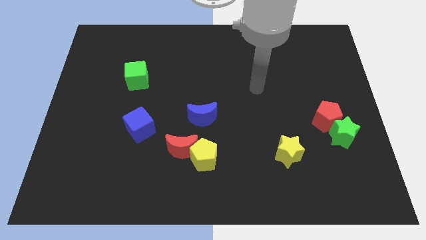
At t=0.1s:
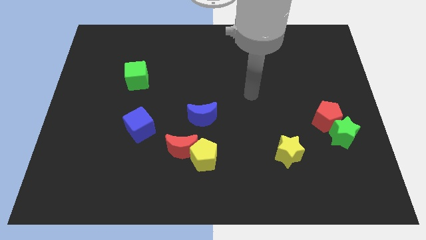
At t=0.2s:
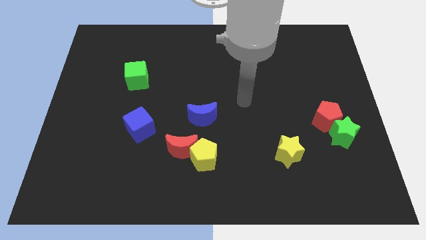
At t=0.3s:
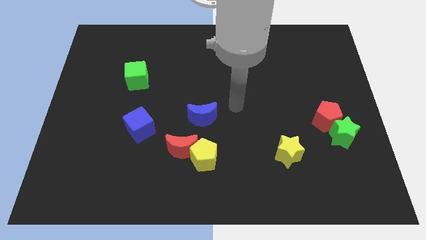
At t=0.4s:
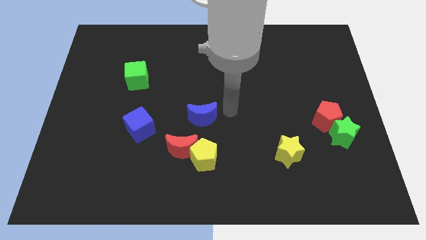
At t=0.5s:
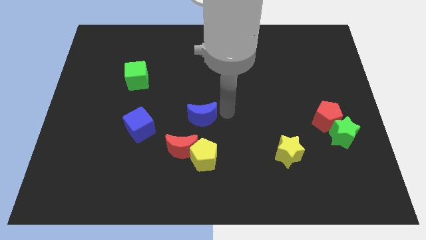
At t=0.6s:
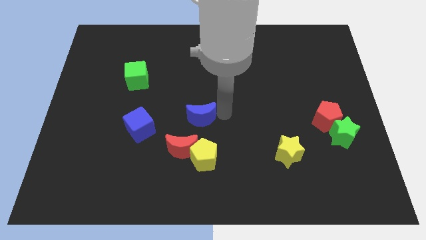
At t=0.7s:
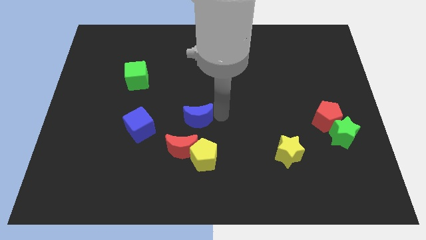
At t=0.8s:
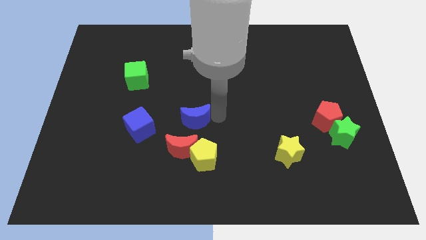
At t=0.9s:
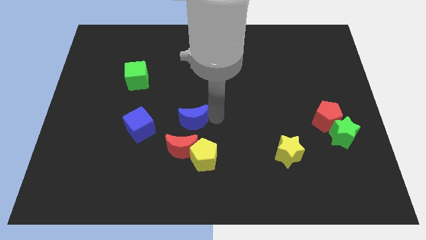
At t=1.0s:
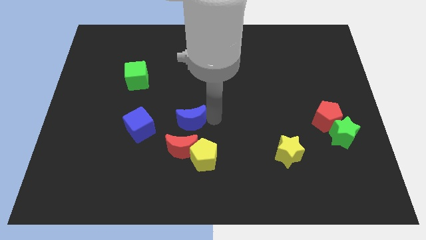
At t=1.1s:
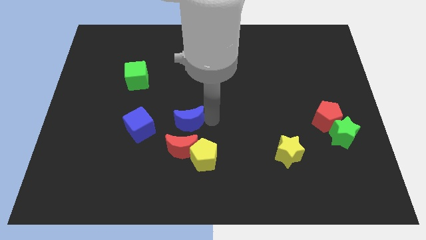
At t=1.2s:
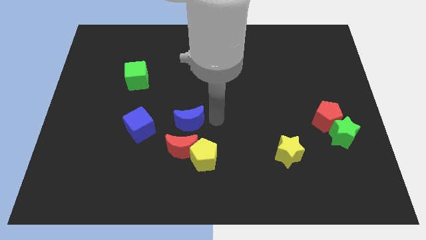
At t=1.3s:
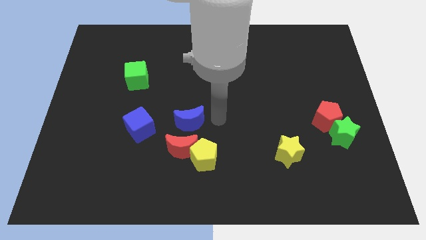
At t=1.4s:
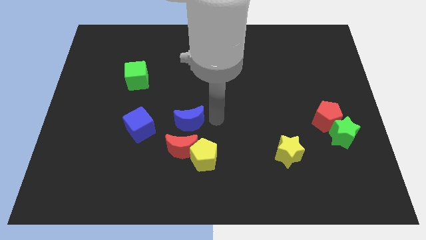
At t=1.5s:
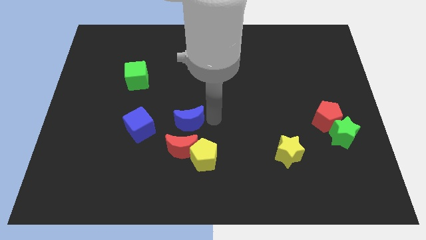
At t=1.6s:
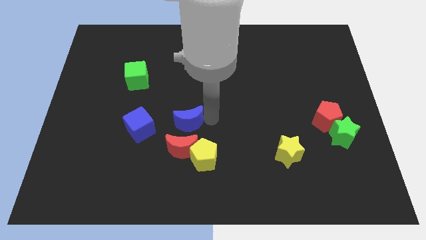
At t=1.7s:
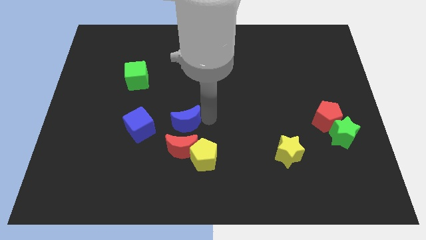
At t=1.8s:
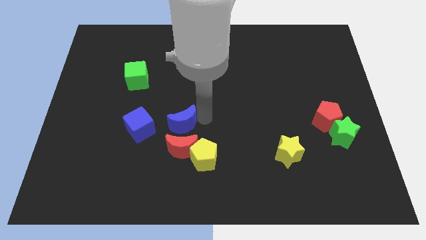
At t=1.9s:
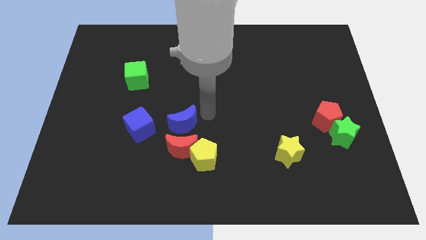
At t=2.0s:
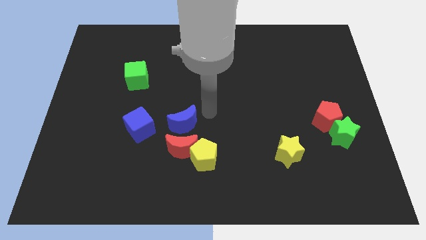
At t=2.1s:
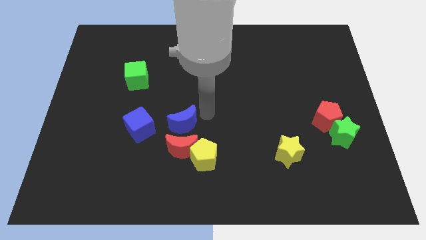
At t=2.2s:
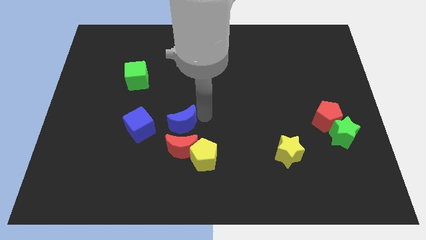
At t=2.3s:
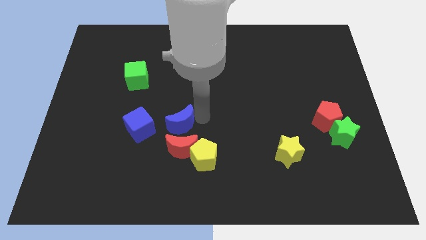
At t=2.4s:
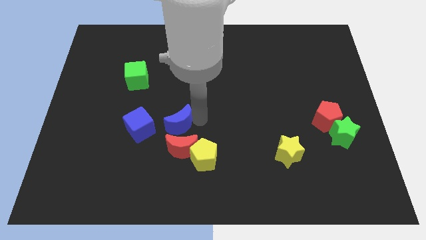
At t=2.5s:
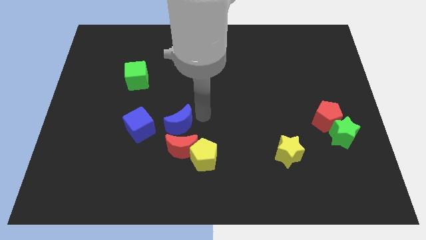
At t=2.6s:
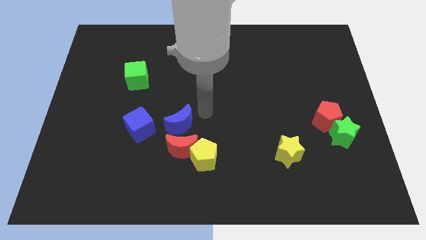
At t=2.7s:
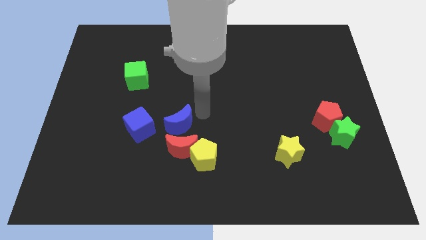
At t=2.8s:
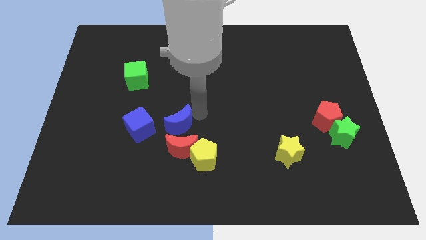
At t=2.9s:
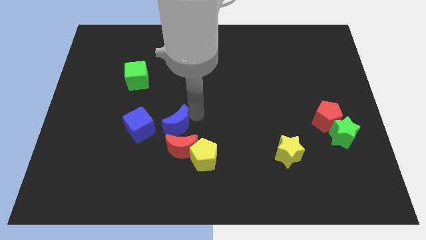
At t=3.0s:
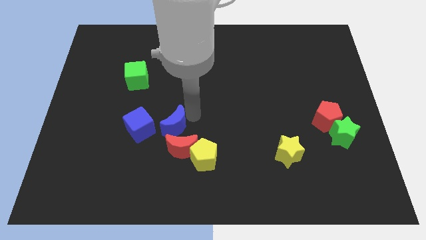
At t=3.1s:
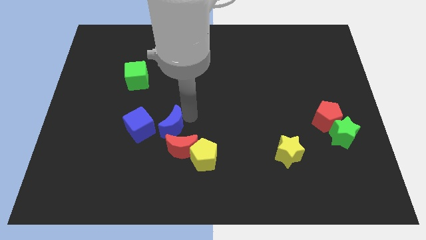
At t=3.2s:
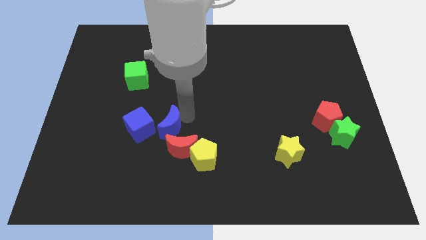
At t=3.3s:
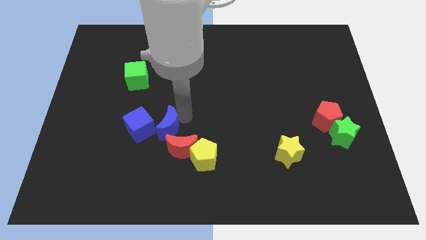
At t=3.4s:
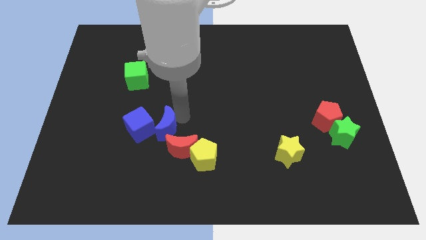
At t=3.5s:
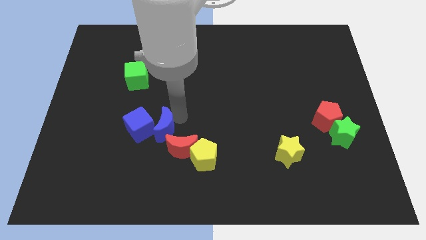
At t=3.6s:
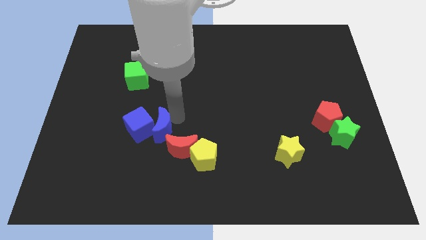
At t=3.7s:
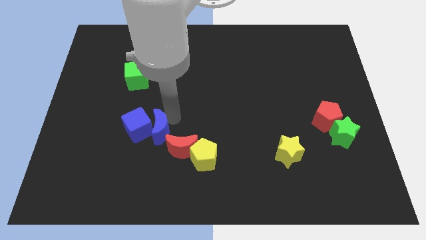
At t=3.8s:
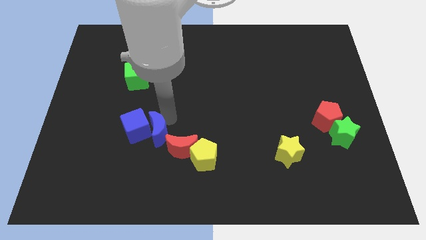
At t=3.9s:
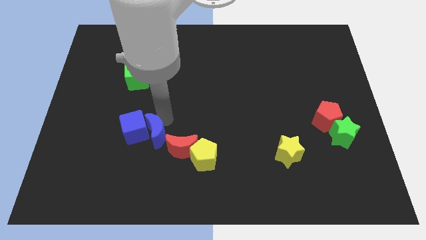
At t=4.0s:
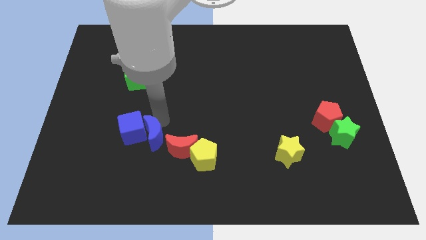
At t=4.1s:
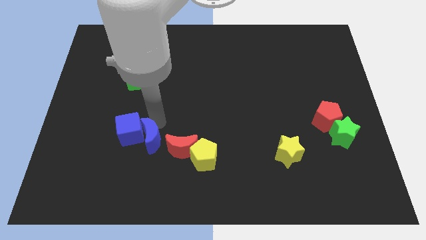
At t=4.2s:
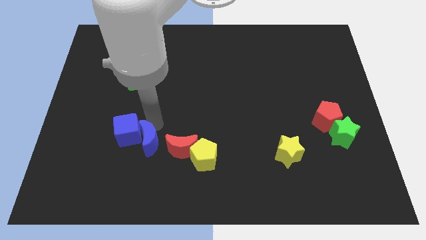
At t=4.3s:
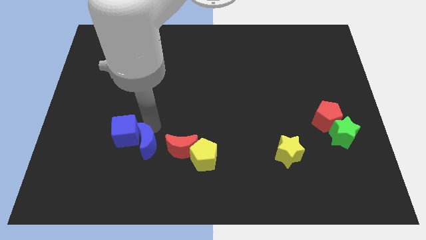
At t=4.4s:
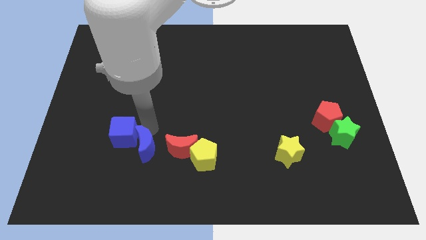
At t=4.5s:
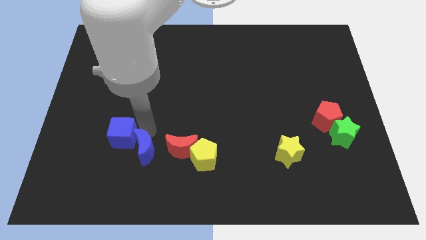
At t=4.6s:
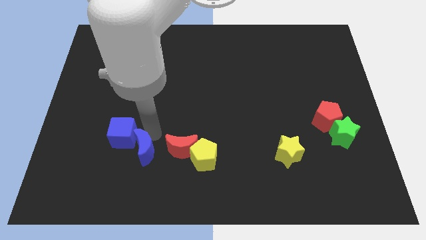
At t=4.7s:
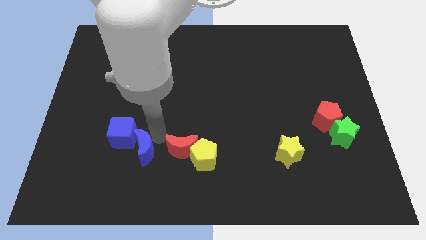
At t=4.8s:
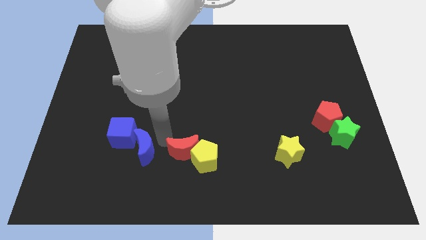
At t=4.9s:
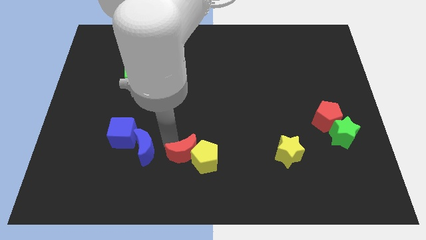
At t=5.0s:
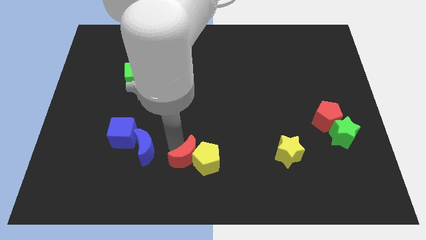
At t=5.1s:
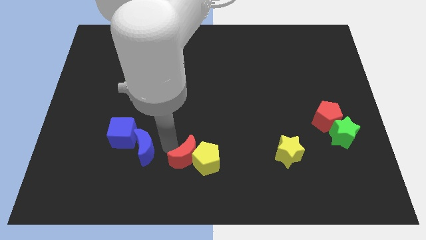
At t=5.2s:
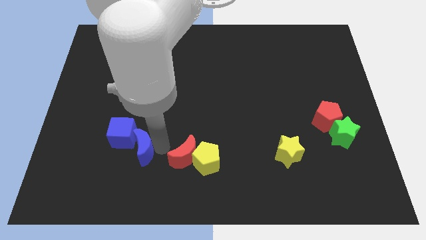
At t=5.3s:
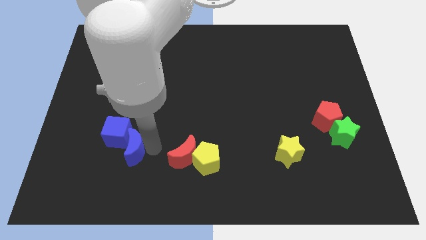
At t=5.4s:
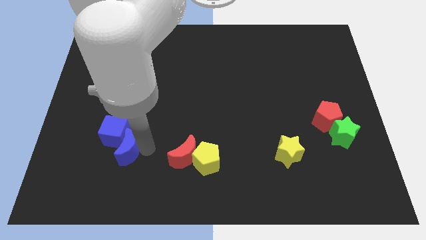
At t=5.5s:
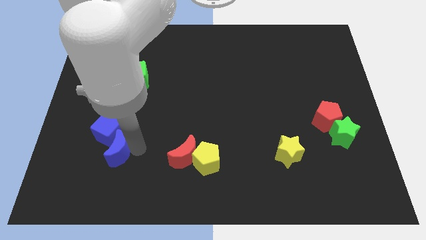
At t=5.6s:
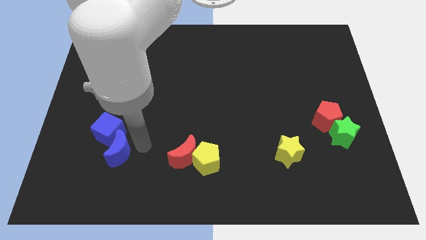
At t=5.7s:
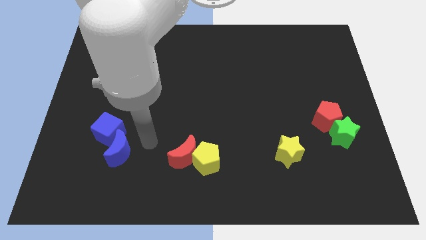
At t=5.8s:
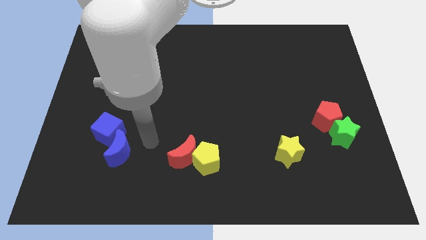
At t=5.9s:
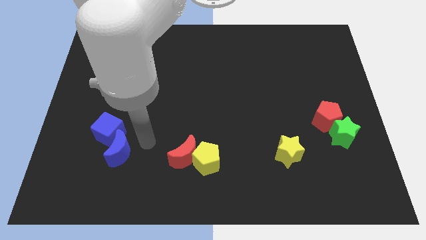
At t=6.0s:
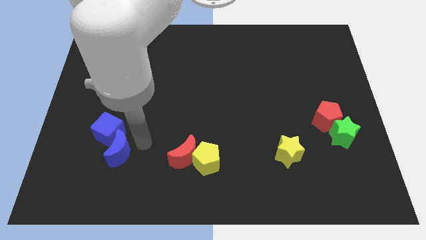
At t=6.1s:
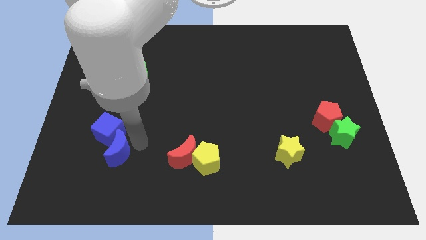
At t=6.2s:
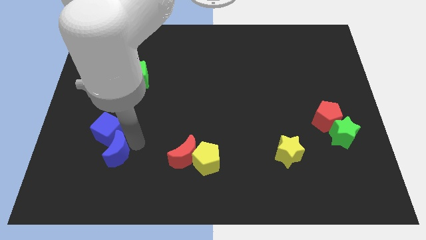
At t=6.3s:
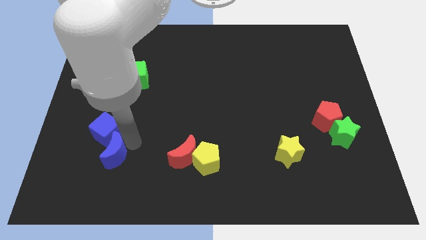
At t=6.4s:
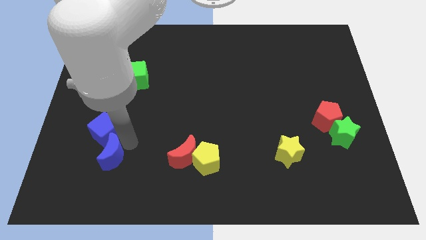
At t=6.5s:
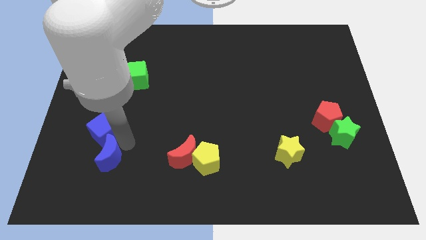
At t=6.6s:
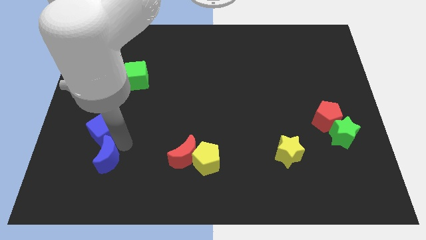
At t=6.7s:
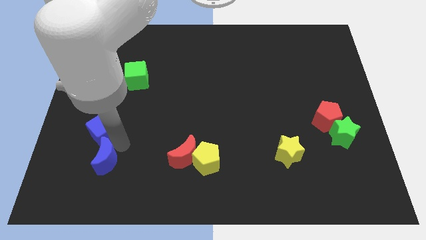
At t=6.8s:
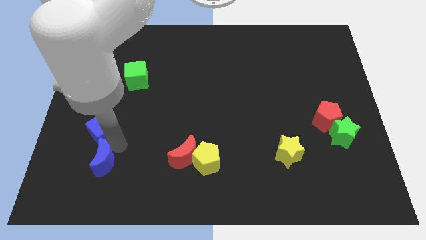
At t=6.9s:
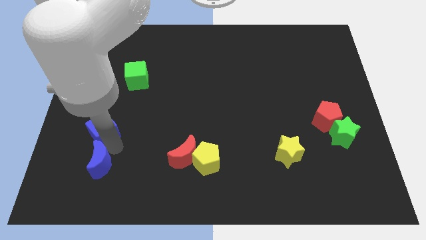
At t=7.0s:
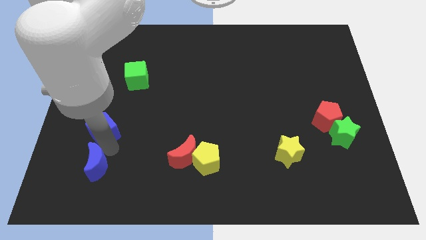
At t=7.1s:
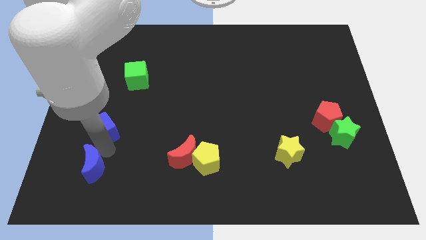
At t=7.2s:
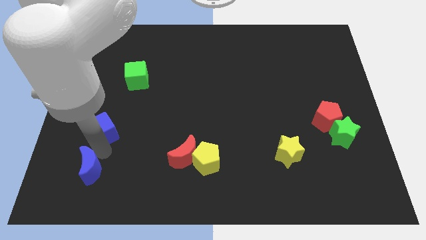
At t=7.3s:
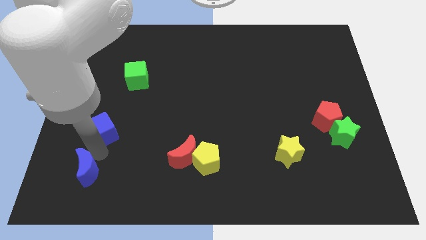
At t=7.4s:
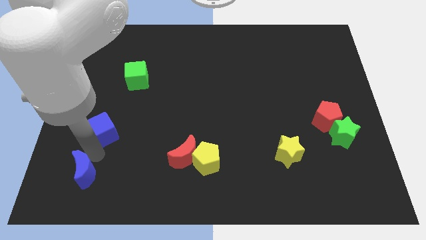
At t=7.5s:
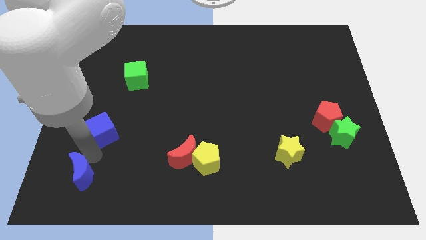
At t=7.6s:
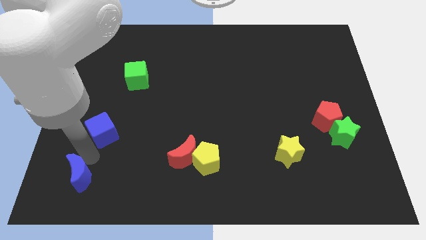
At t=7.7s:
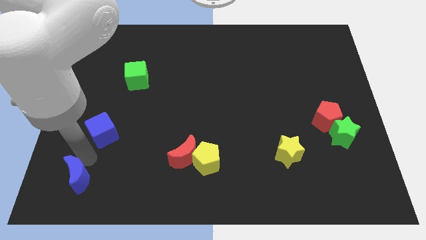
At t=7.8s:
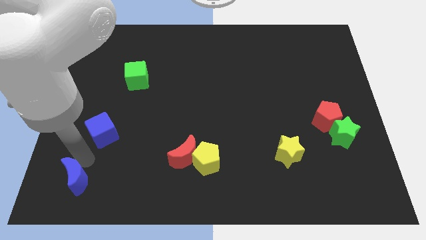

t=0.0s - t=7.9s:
push the blue moon to the bottom left corner

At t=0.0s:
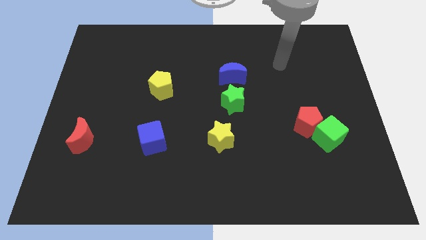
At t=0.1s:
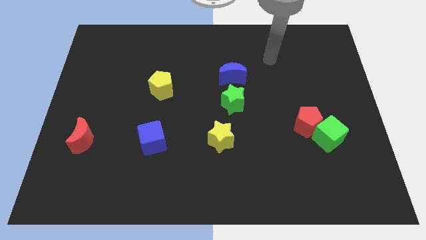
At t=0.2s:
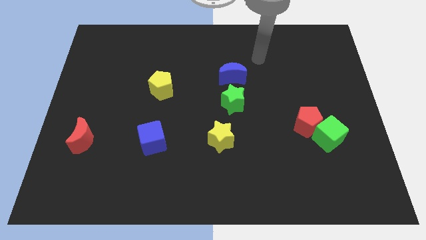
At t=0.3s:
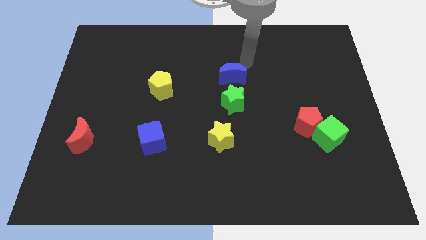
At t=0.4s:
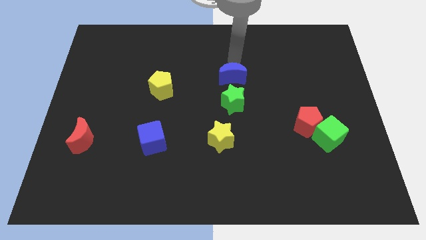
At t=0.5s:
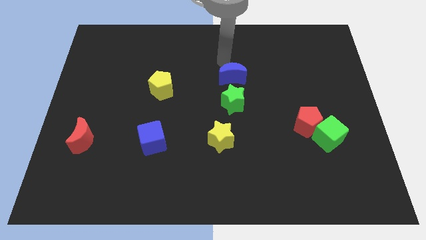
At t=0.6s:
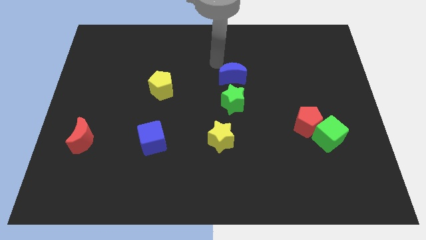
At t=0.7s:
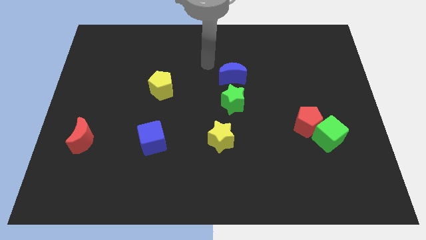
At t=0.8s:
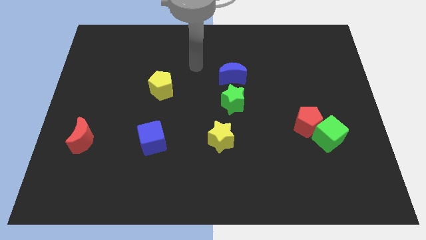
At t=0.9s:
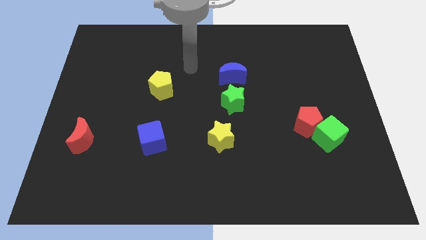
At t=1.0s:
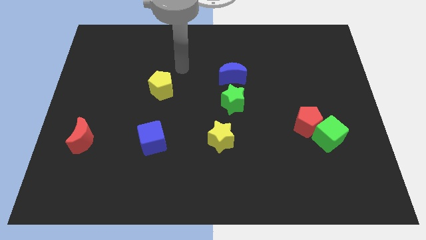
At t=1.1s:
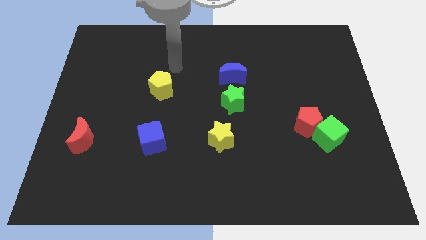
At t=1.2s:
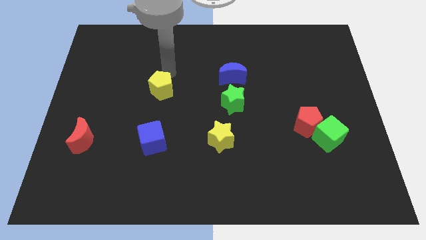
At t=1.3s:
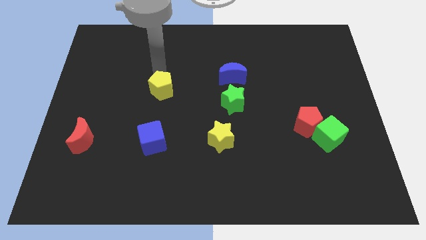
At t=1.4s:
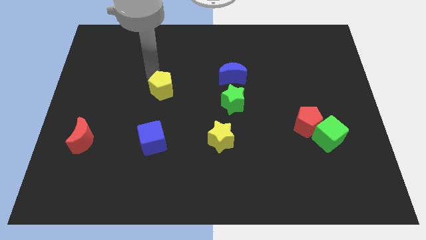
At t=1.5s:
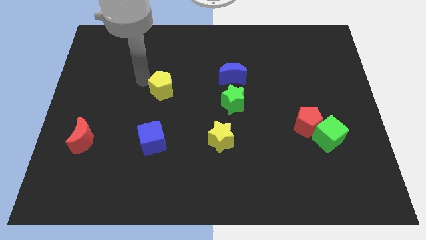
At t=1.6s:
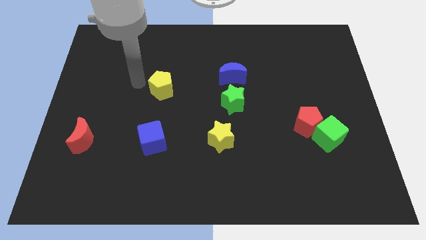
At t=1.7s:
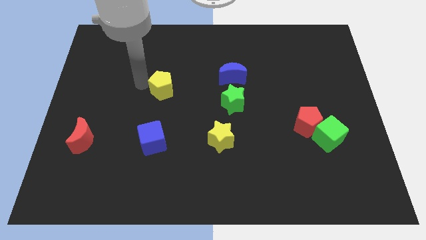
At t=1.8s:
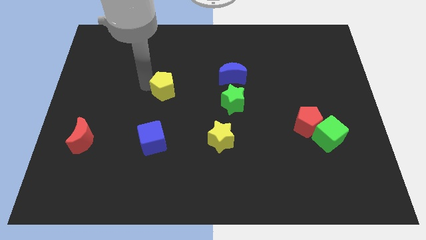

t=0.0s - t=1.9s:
slide the yellow pentagon to the center
